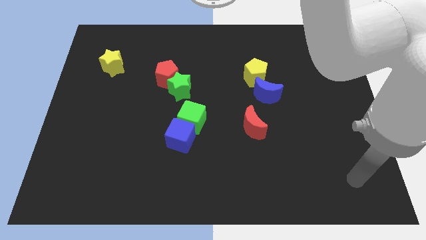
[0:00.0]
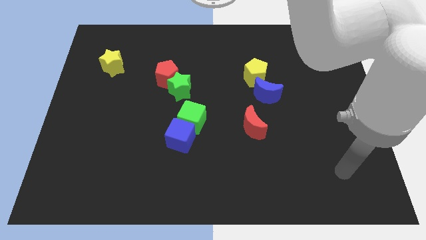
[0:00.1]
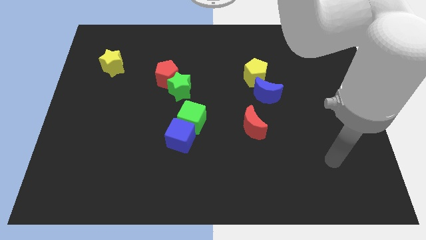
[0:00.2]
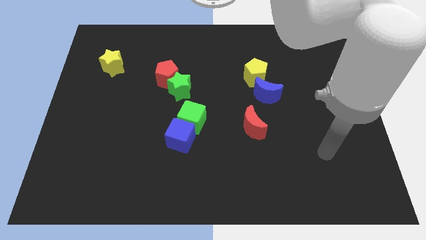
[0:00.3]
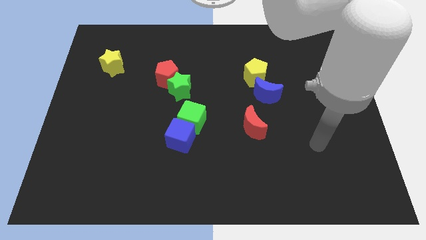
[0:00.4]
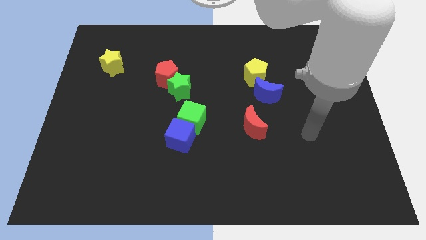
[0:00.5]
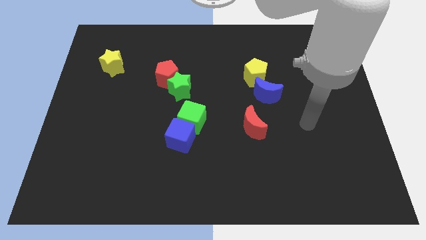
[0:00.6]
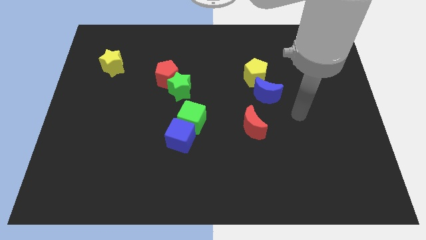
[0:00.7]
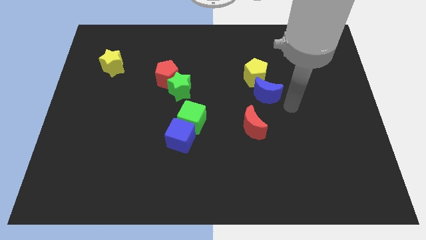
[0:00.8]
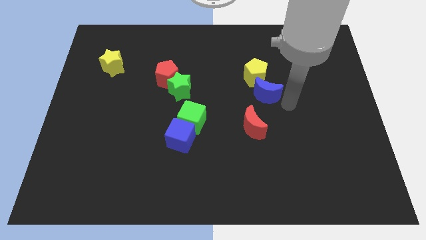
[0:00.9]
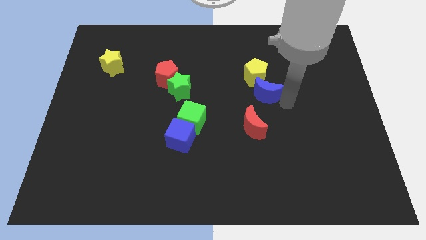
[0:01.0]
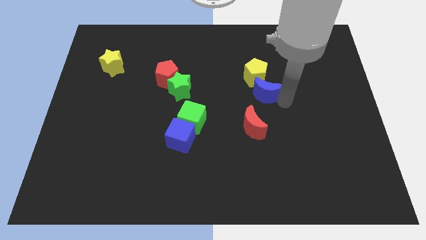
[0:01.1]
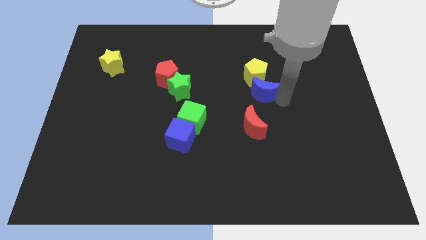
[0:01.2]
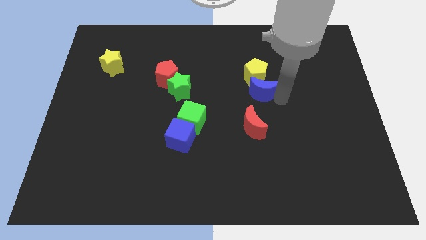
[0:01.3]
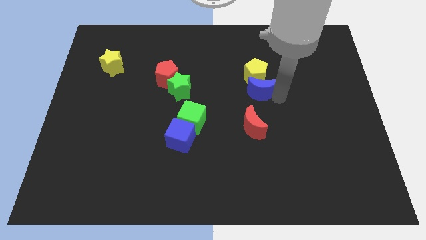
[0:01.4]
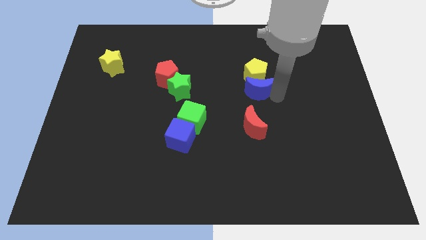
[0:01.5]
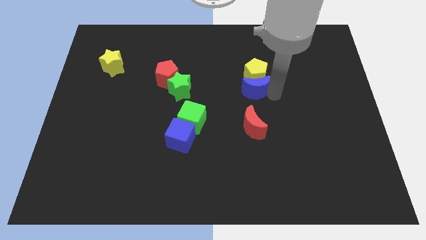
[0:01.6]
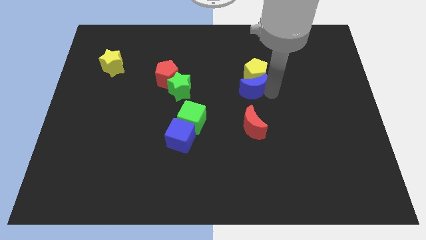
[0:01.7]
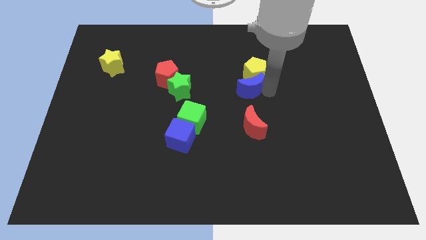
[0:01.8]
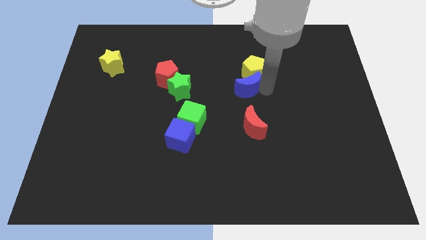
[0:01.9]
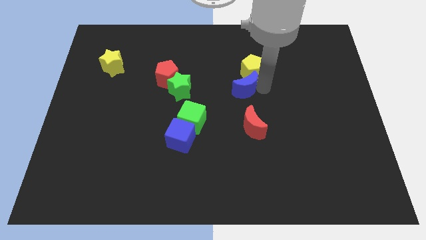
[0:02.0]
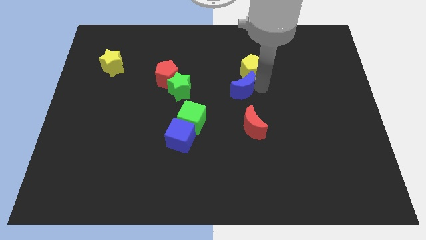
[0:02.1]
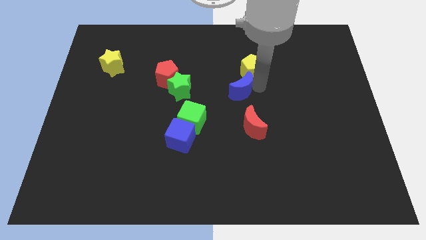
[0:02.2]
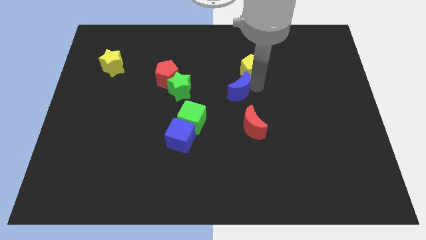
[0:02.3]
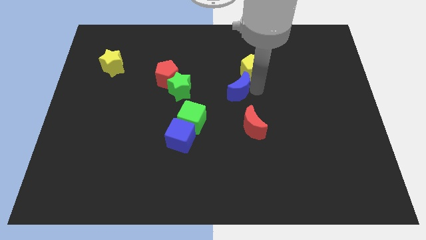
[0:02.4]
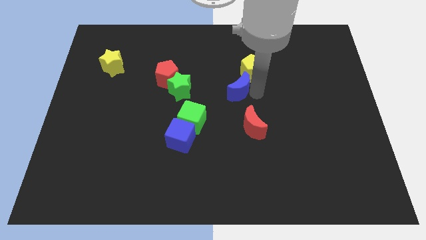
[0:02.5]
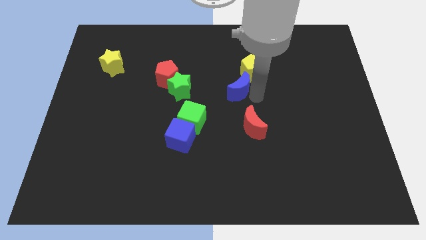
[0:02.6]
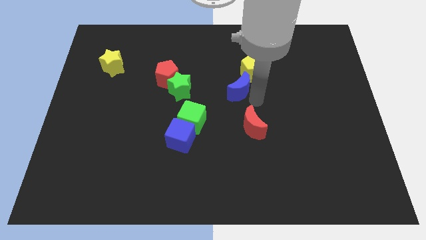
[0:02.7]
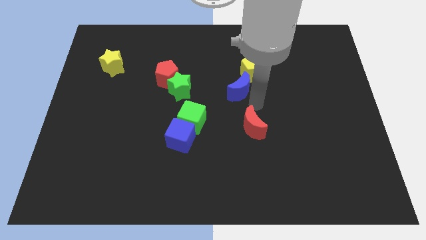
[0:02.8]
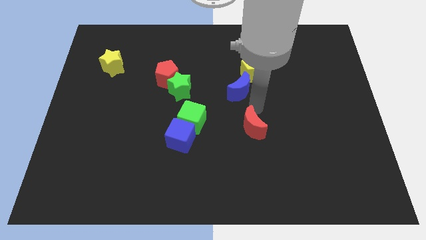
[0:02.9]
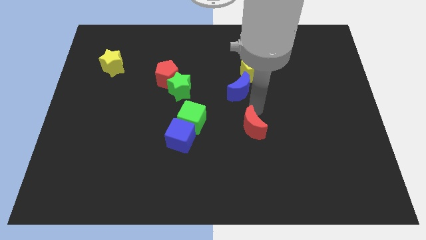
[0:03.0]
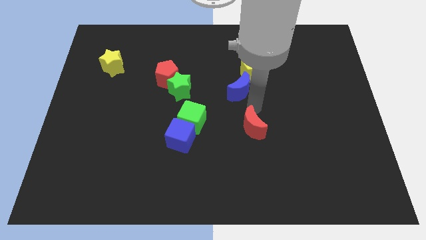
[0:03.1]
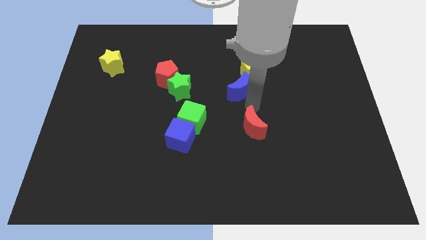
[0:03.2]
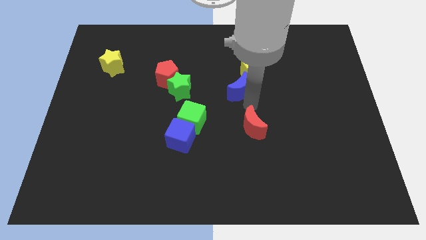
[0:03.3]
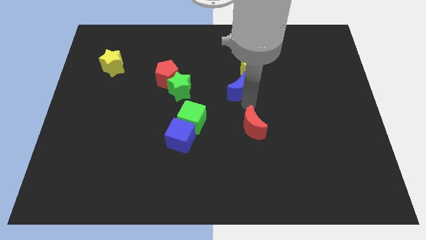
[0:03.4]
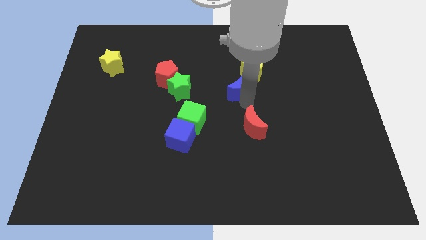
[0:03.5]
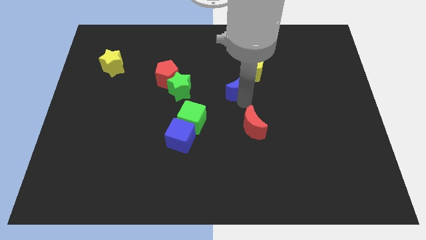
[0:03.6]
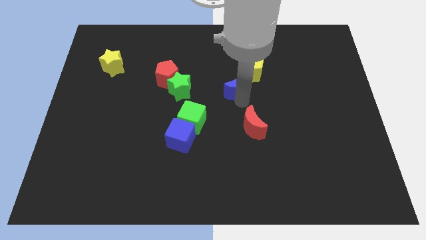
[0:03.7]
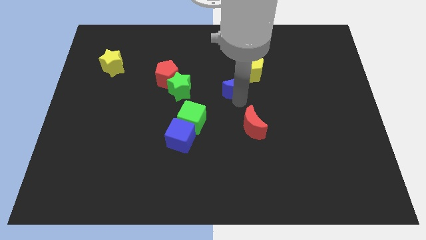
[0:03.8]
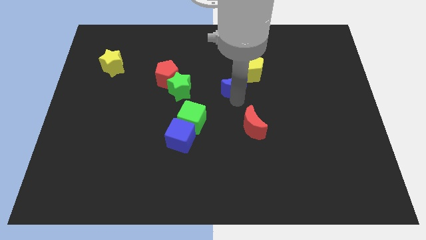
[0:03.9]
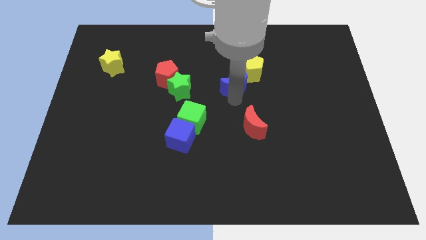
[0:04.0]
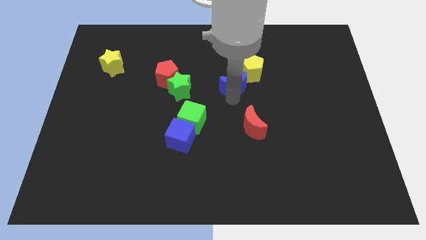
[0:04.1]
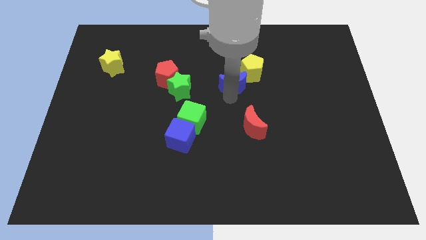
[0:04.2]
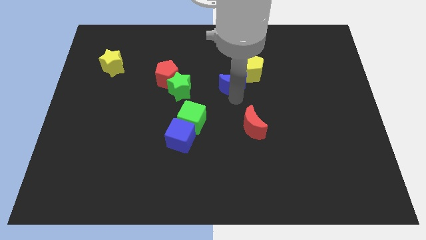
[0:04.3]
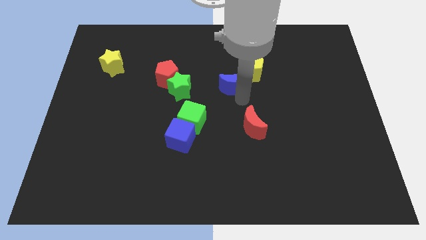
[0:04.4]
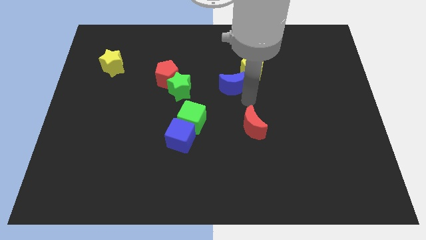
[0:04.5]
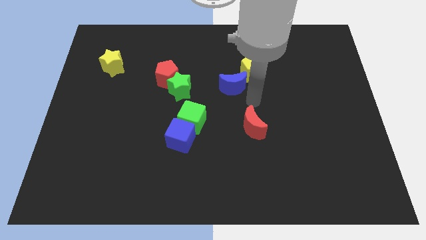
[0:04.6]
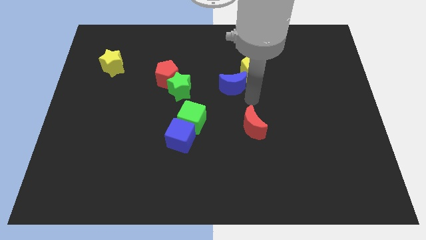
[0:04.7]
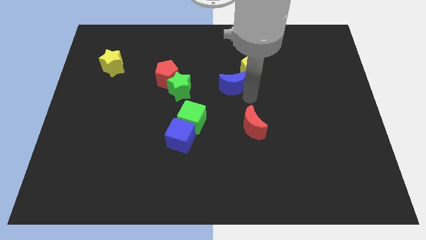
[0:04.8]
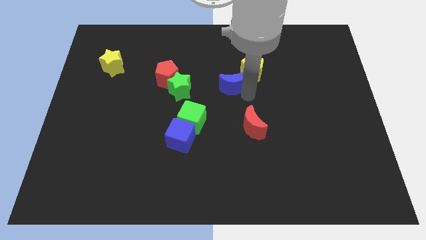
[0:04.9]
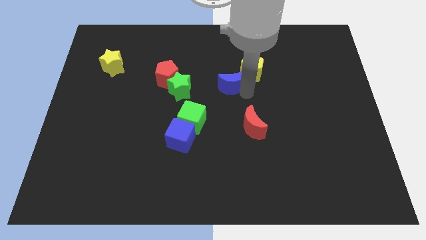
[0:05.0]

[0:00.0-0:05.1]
move the blue moon left of the yellow pentagon

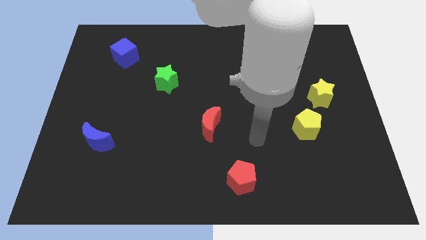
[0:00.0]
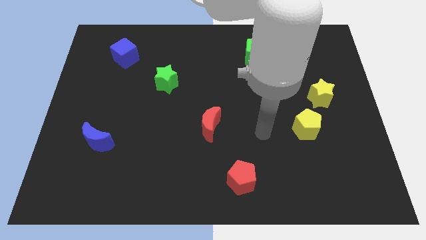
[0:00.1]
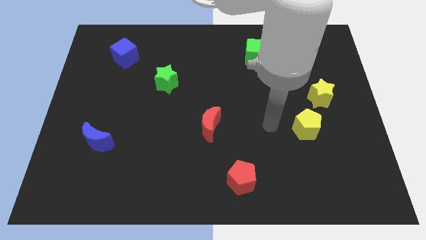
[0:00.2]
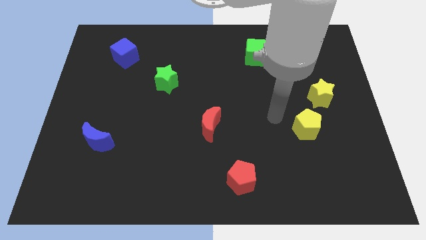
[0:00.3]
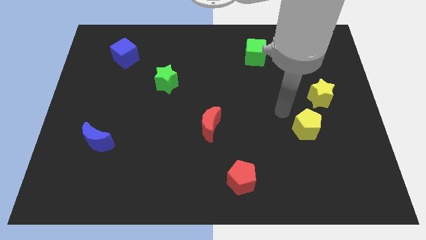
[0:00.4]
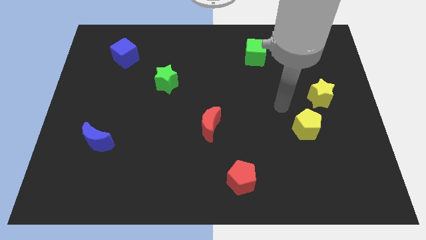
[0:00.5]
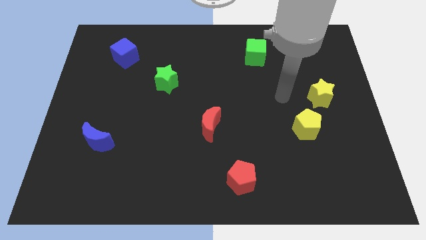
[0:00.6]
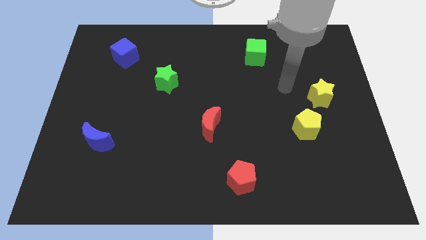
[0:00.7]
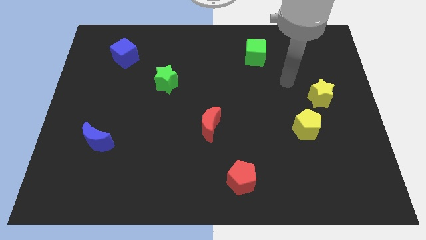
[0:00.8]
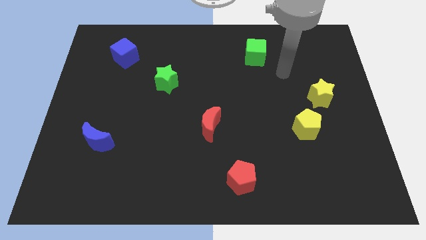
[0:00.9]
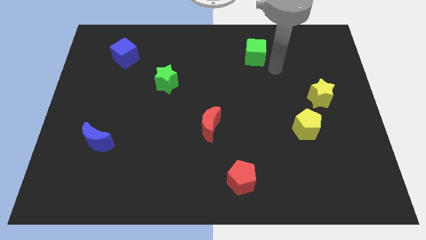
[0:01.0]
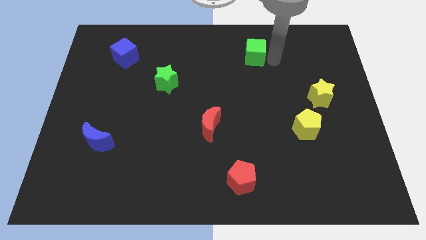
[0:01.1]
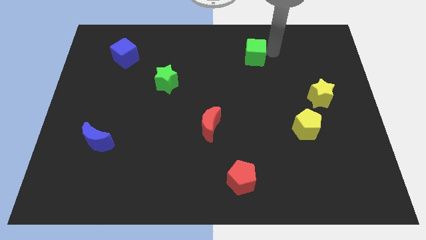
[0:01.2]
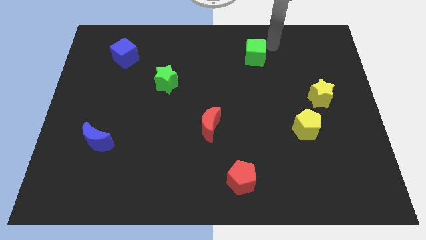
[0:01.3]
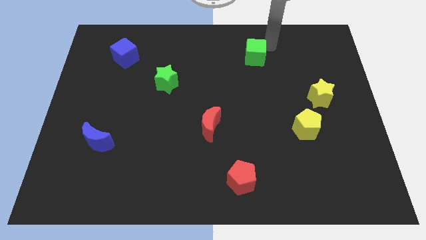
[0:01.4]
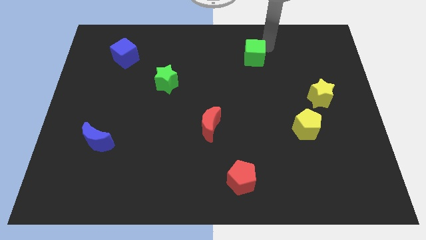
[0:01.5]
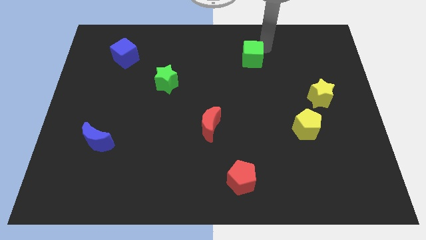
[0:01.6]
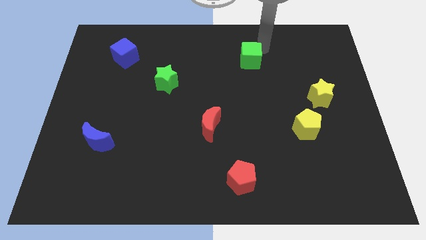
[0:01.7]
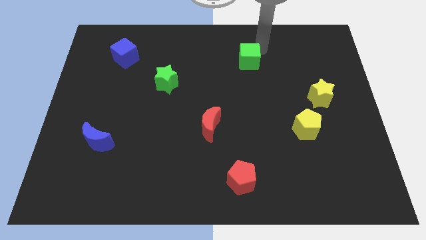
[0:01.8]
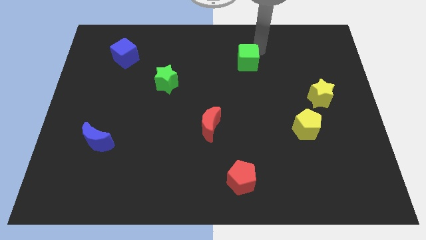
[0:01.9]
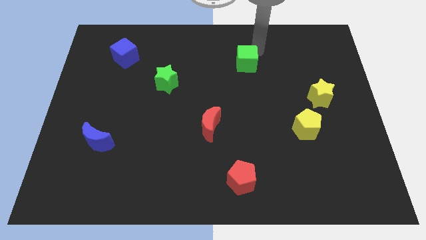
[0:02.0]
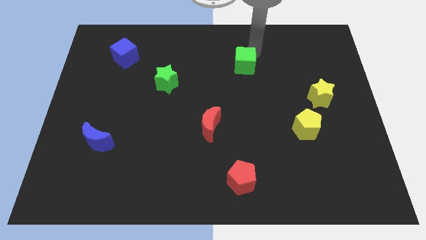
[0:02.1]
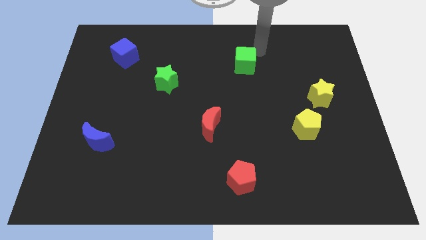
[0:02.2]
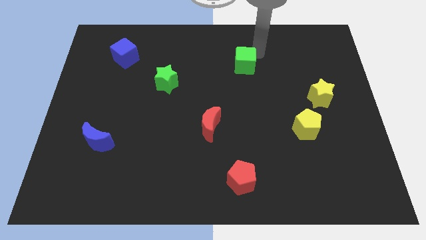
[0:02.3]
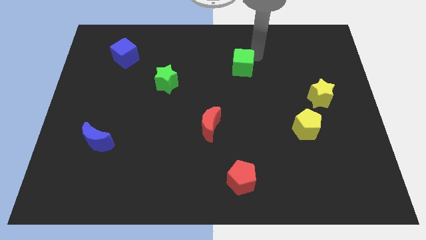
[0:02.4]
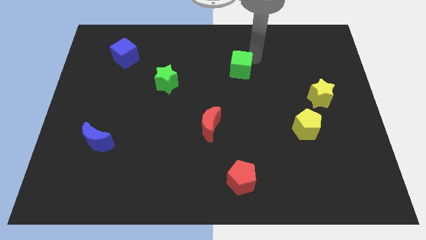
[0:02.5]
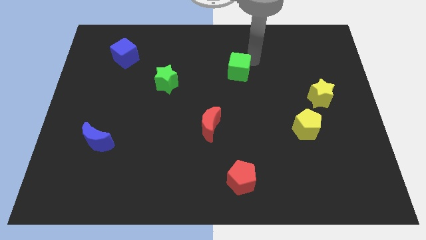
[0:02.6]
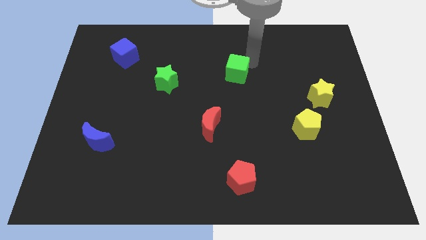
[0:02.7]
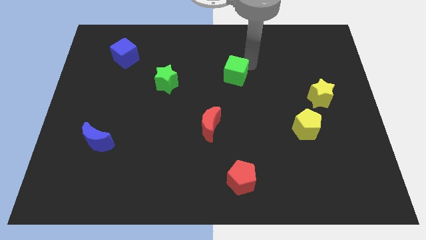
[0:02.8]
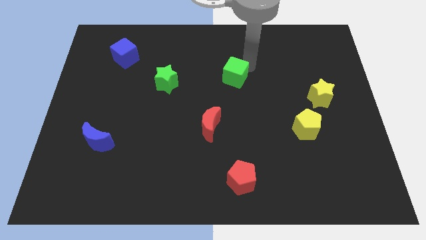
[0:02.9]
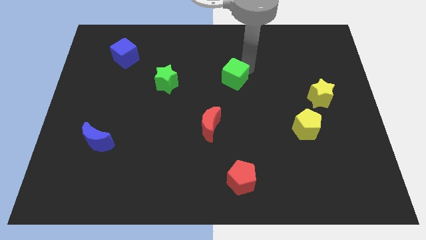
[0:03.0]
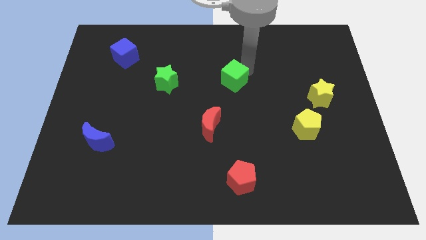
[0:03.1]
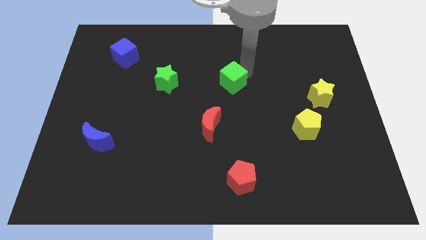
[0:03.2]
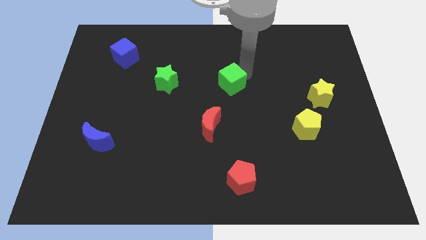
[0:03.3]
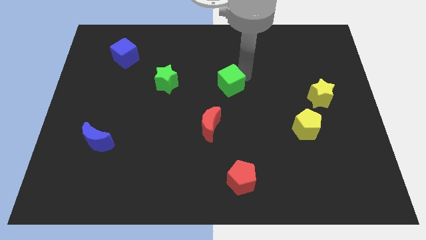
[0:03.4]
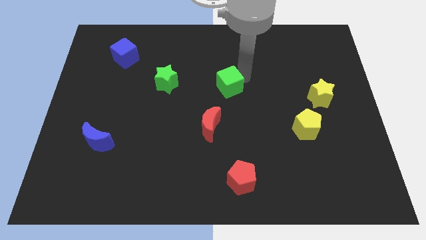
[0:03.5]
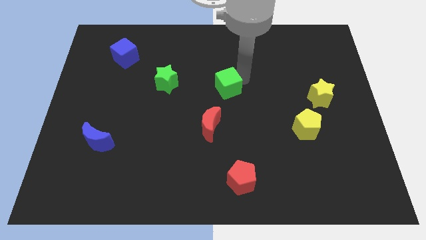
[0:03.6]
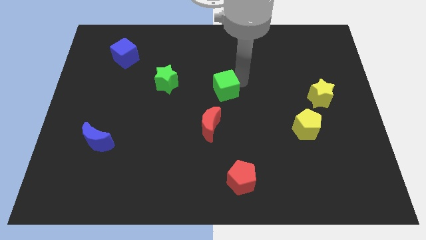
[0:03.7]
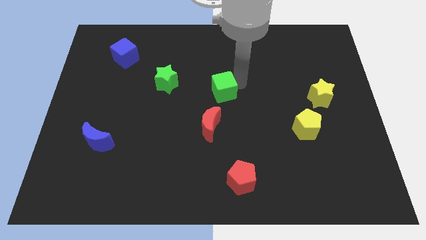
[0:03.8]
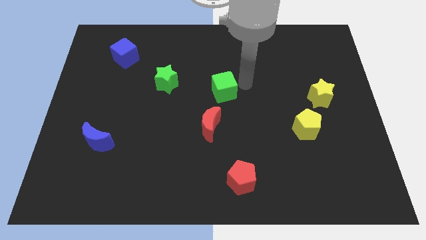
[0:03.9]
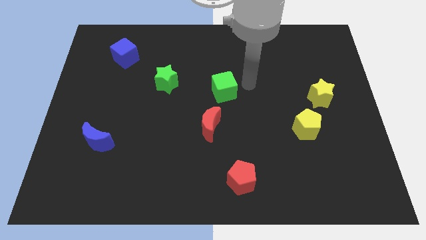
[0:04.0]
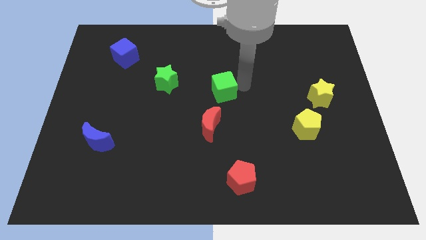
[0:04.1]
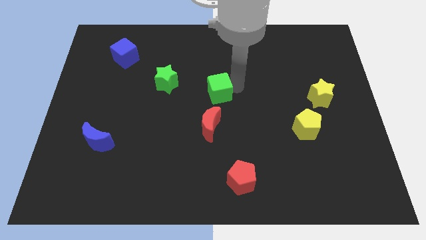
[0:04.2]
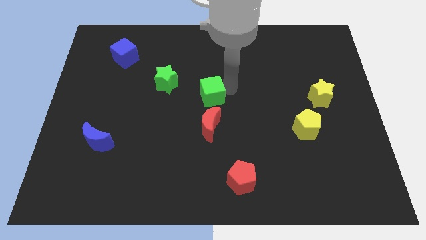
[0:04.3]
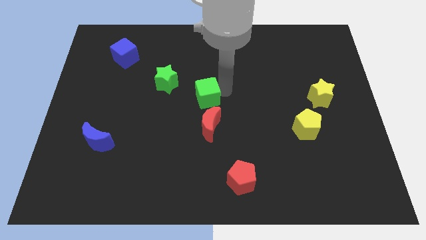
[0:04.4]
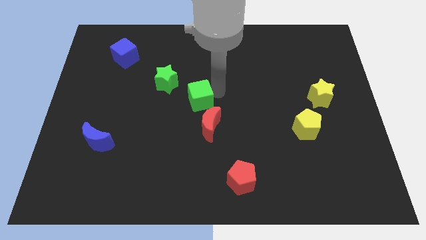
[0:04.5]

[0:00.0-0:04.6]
put the green cube diagonally up and to the left of the red moon
